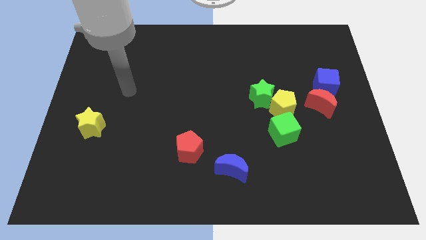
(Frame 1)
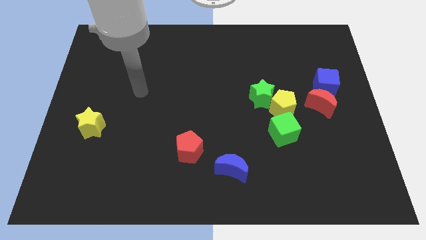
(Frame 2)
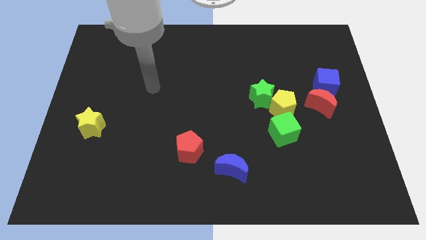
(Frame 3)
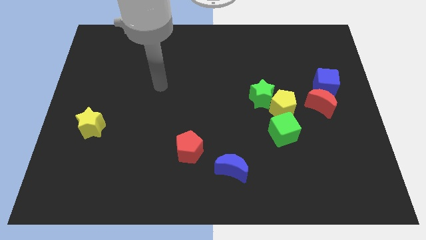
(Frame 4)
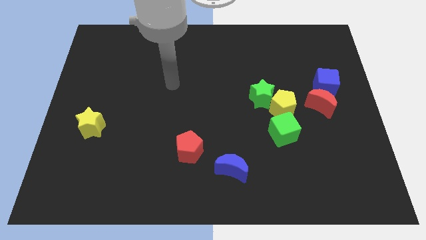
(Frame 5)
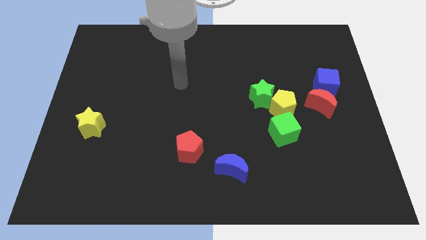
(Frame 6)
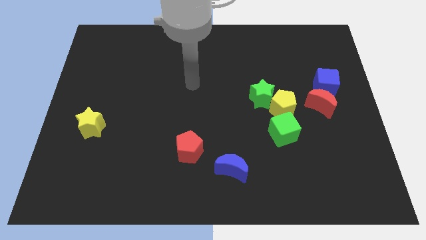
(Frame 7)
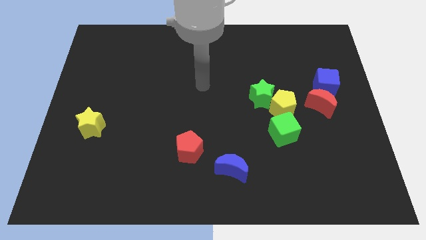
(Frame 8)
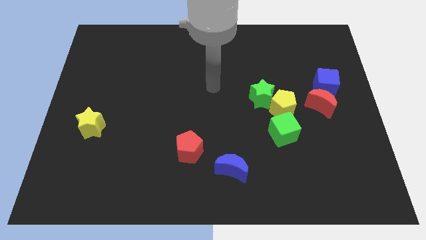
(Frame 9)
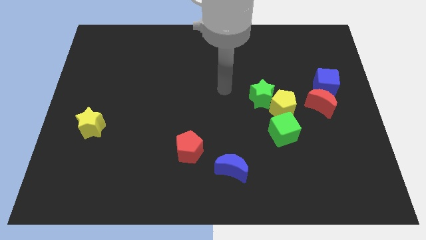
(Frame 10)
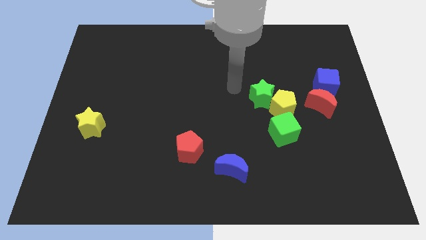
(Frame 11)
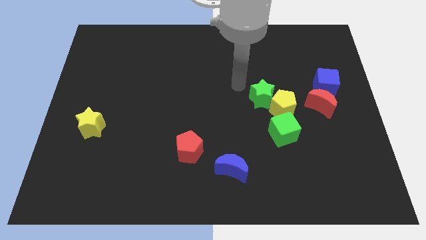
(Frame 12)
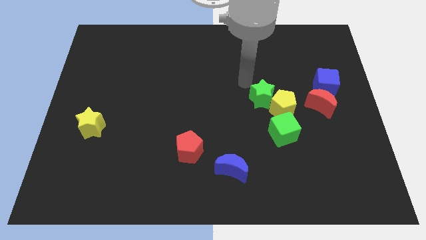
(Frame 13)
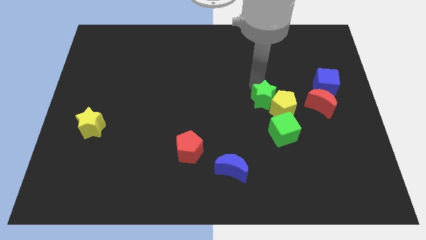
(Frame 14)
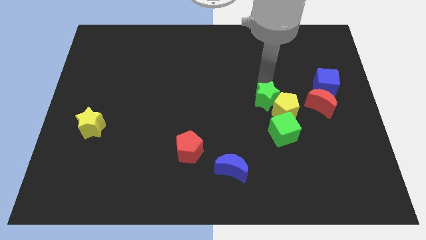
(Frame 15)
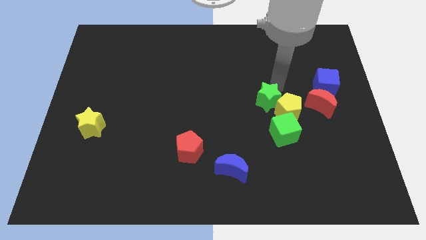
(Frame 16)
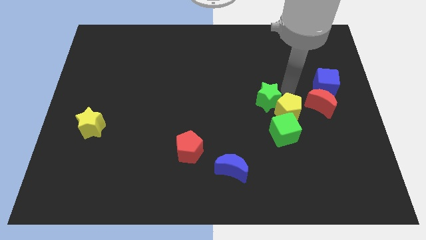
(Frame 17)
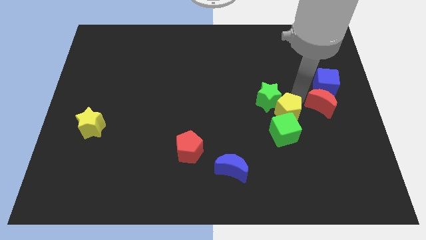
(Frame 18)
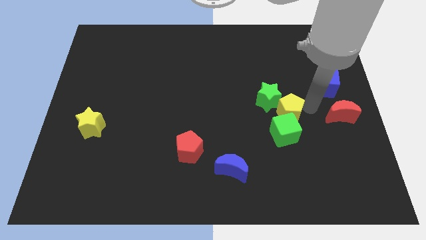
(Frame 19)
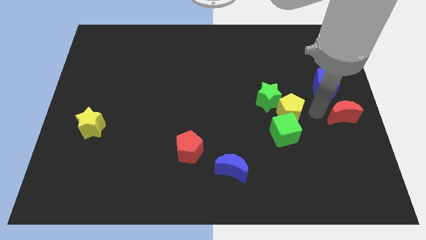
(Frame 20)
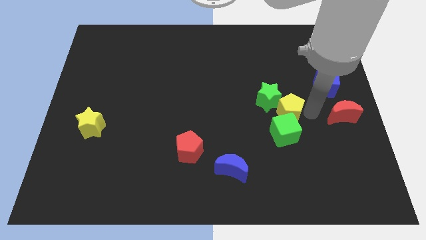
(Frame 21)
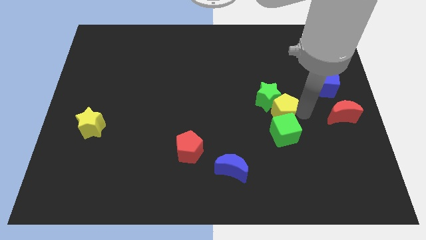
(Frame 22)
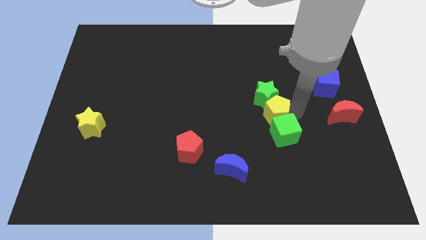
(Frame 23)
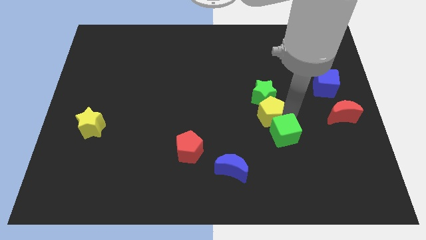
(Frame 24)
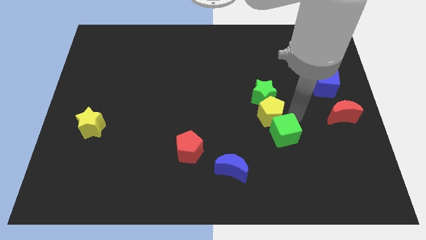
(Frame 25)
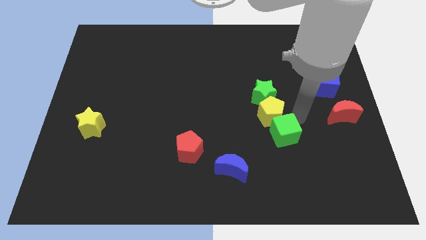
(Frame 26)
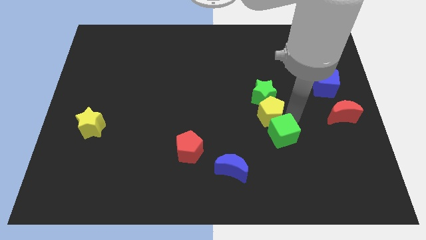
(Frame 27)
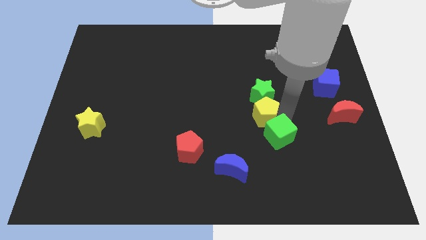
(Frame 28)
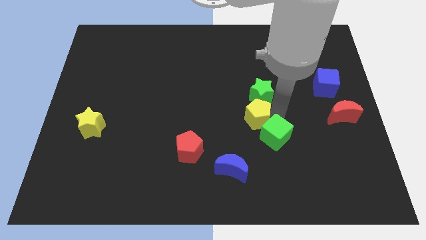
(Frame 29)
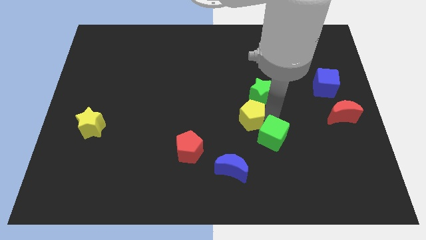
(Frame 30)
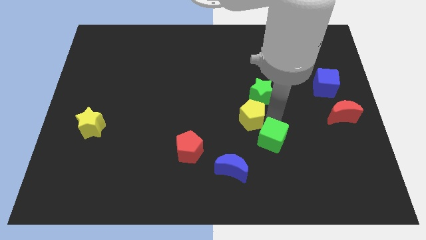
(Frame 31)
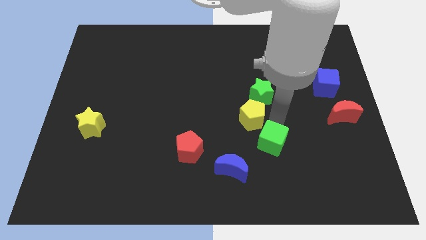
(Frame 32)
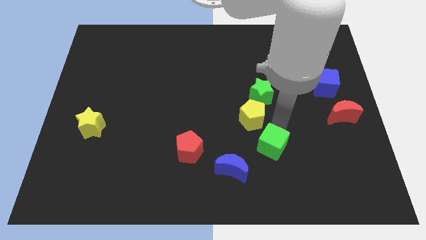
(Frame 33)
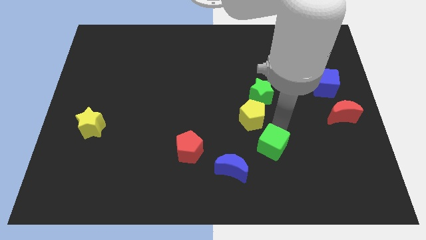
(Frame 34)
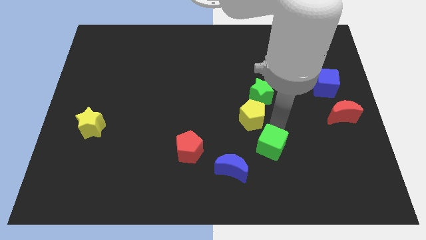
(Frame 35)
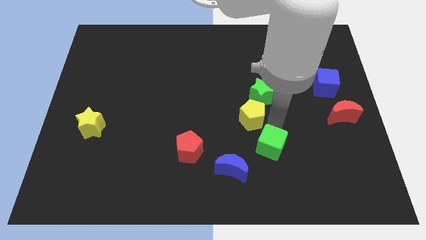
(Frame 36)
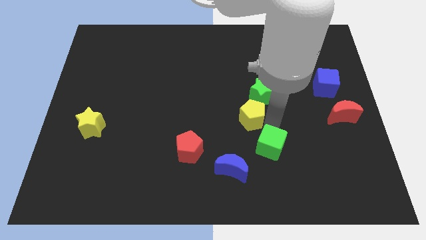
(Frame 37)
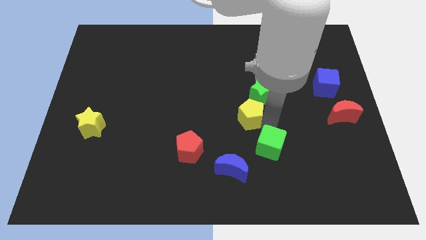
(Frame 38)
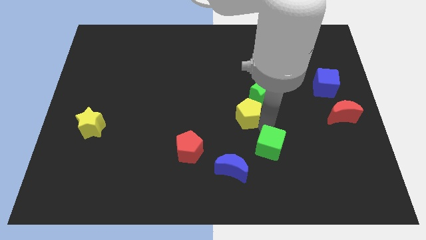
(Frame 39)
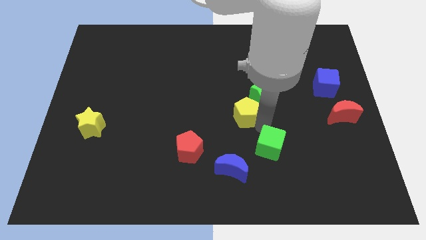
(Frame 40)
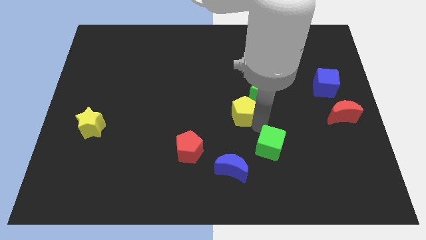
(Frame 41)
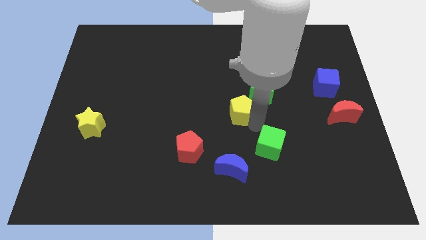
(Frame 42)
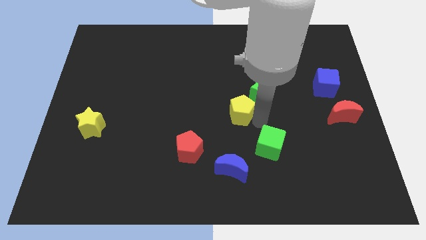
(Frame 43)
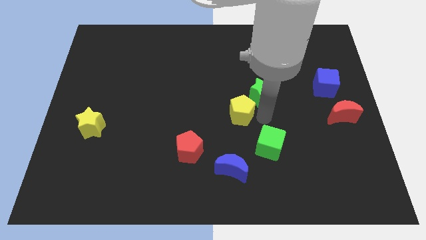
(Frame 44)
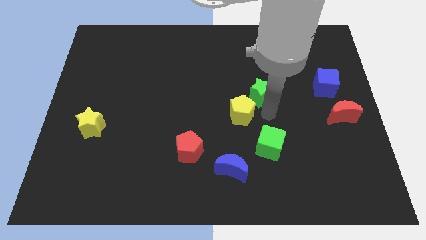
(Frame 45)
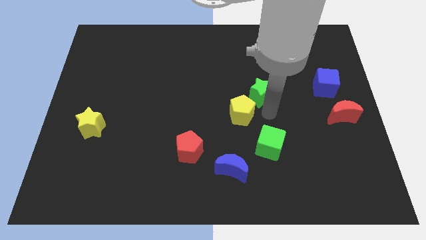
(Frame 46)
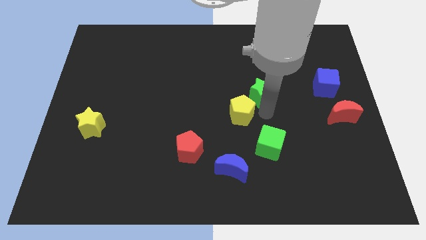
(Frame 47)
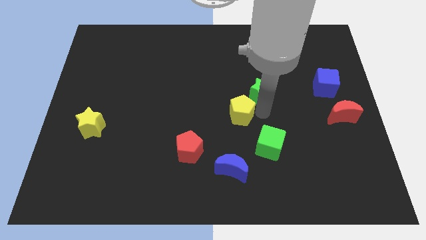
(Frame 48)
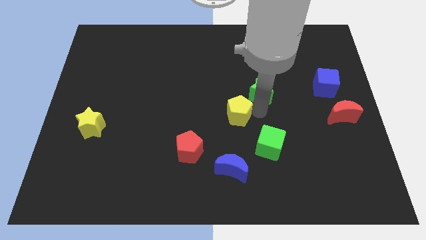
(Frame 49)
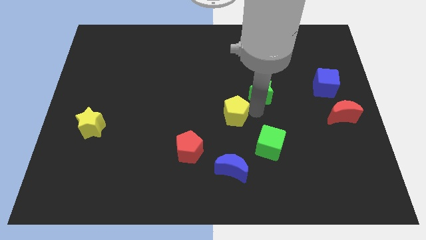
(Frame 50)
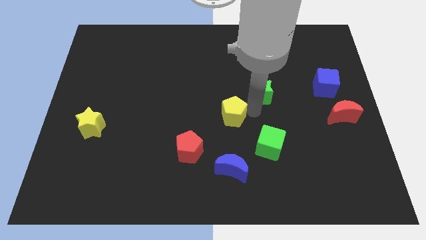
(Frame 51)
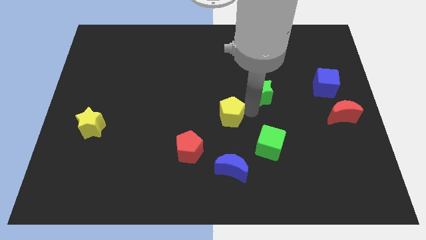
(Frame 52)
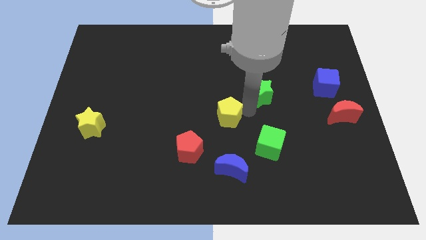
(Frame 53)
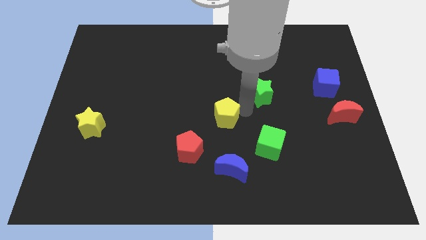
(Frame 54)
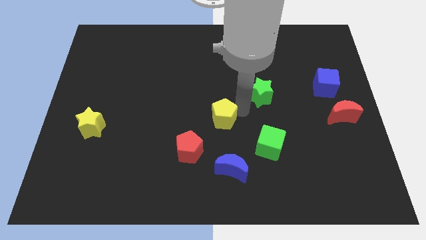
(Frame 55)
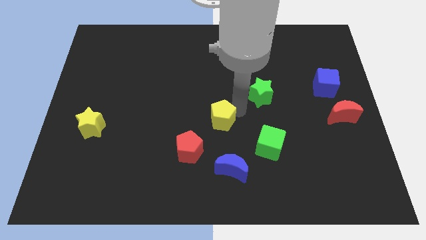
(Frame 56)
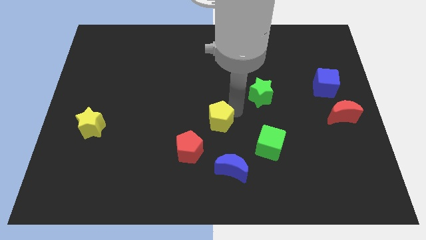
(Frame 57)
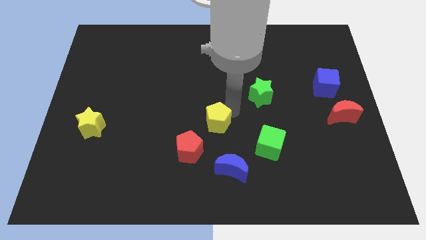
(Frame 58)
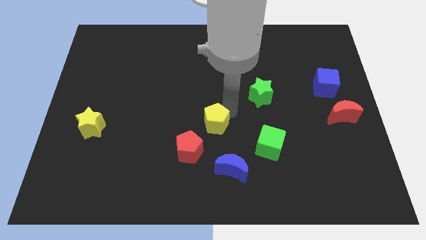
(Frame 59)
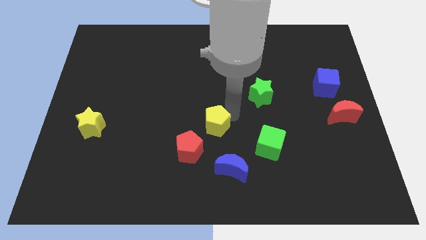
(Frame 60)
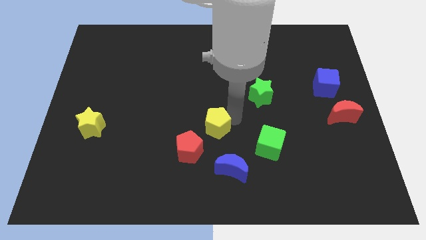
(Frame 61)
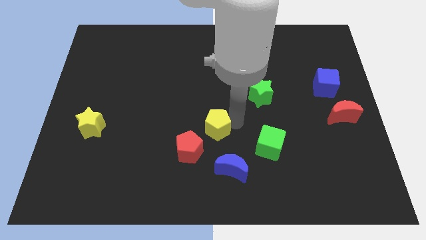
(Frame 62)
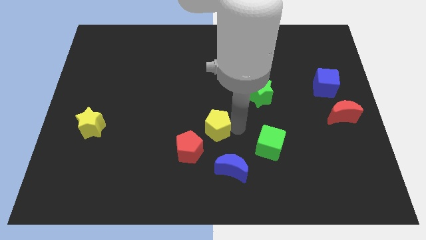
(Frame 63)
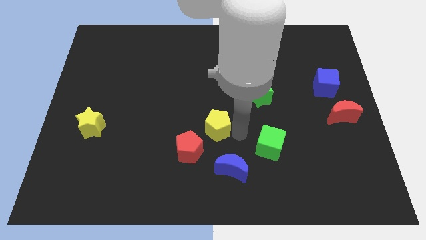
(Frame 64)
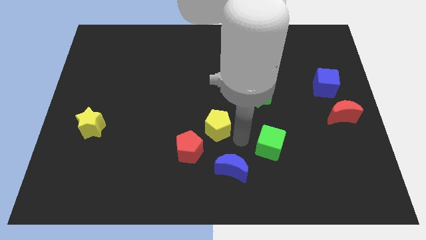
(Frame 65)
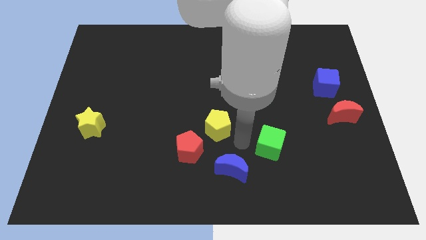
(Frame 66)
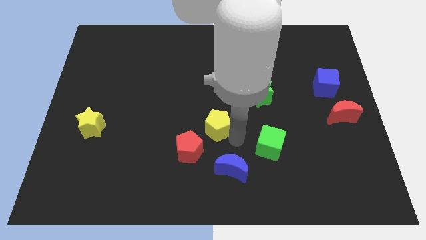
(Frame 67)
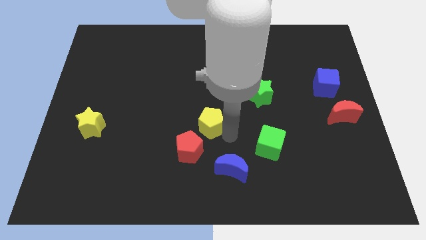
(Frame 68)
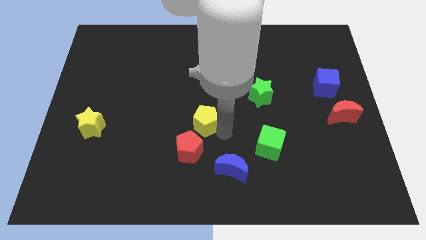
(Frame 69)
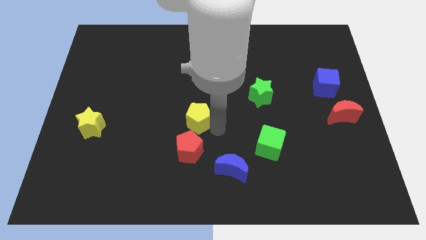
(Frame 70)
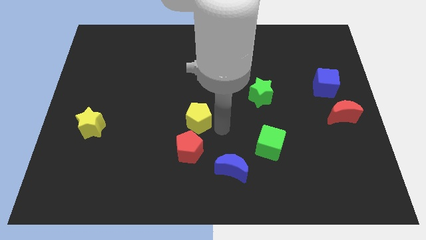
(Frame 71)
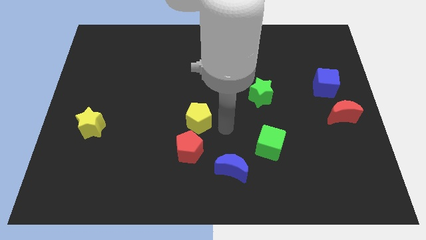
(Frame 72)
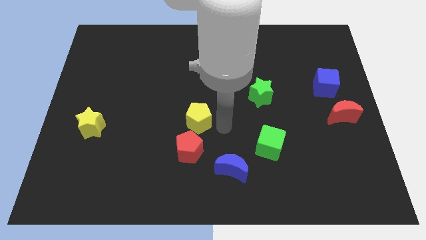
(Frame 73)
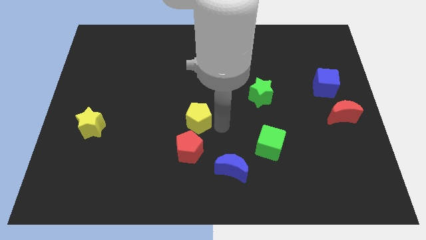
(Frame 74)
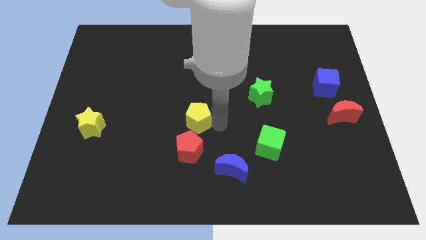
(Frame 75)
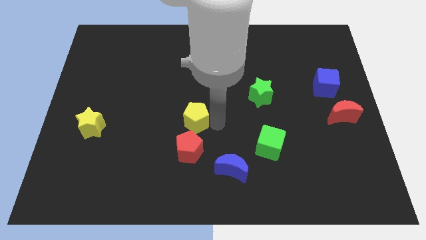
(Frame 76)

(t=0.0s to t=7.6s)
slide the yellow pentagon left

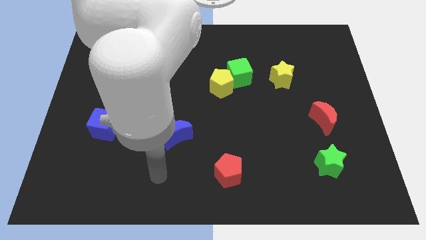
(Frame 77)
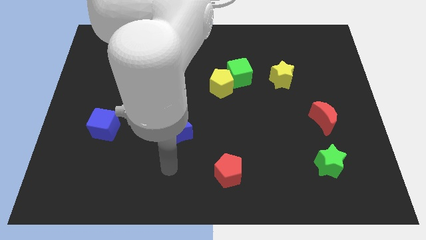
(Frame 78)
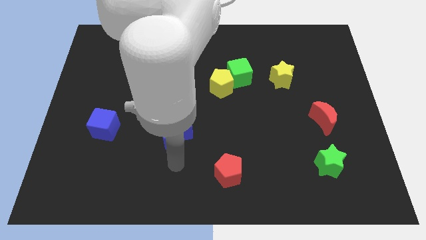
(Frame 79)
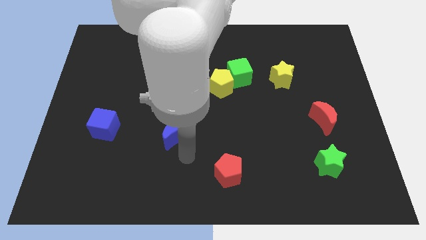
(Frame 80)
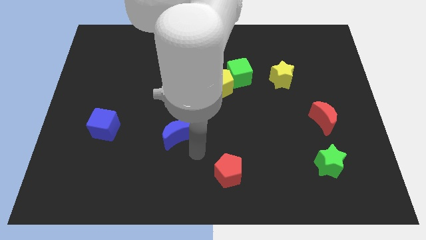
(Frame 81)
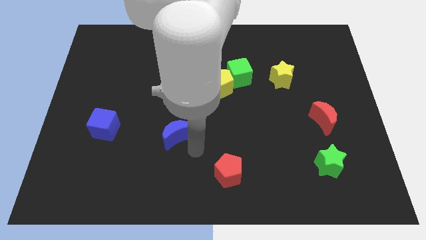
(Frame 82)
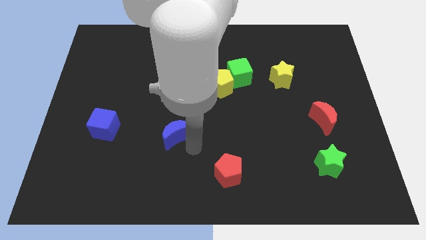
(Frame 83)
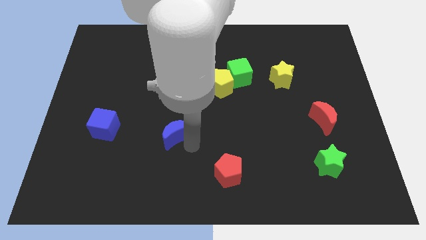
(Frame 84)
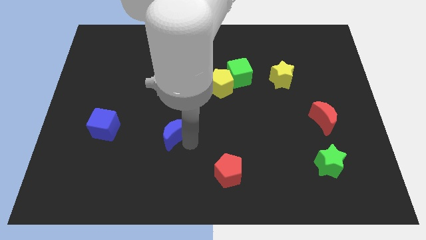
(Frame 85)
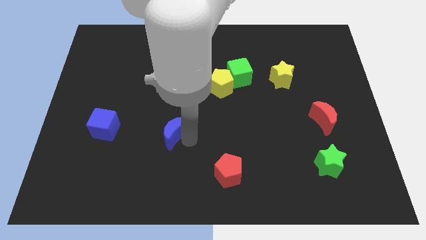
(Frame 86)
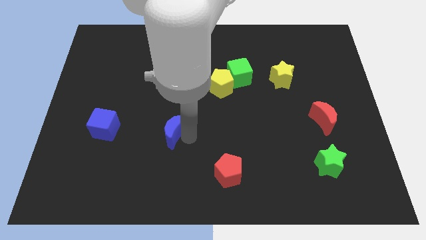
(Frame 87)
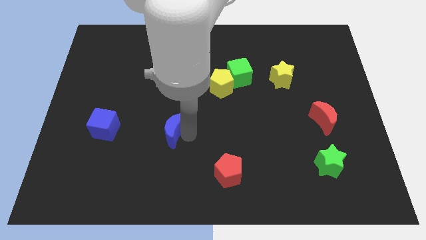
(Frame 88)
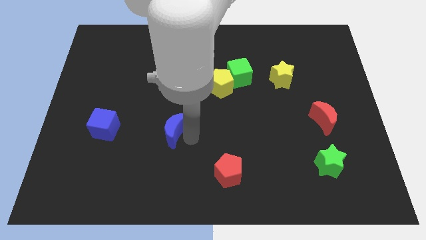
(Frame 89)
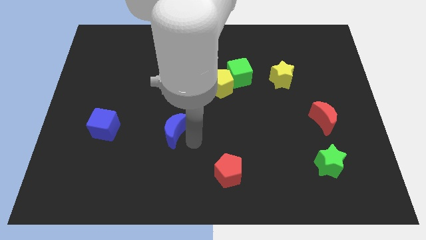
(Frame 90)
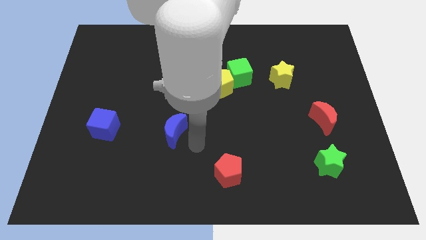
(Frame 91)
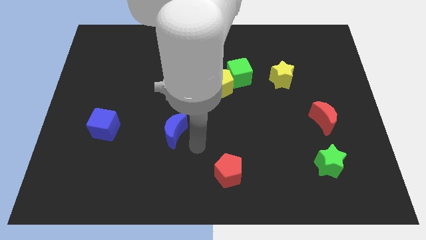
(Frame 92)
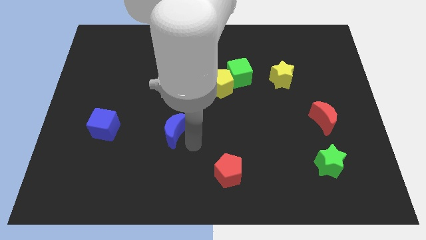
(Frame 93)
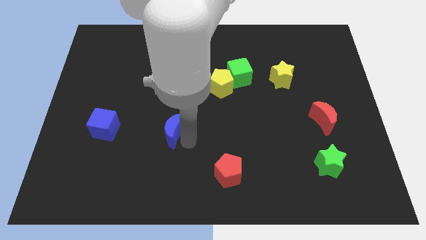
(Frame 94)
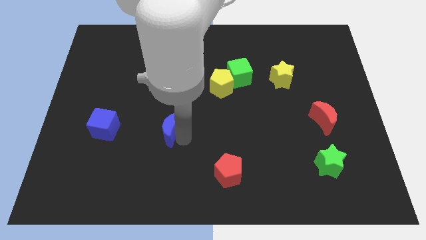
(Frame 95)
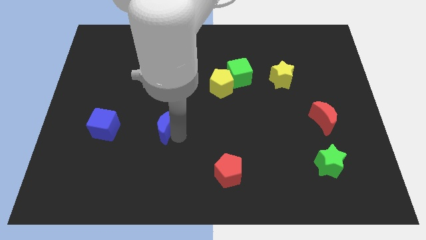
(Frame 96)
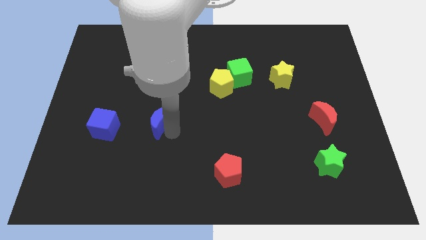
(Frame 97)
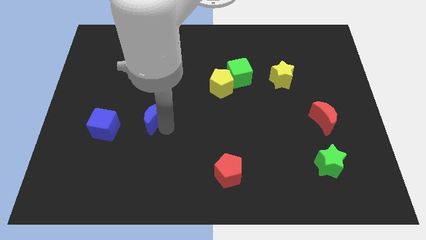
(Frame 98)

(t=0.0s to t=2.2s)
move the blue moon somewhat up and left diagonally
